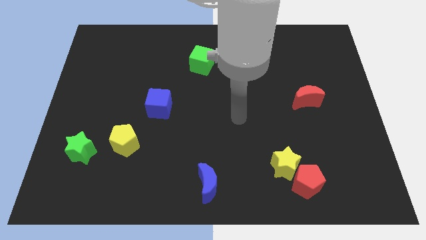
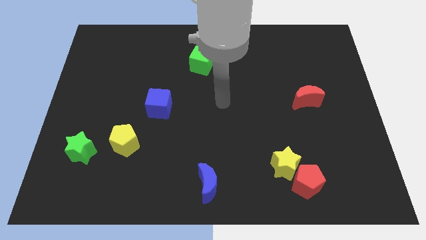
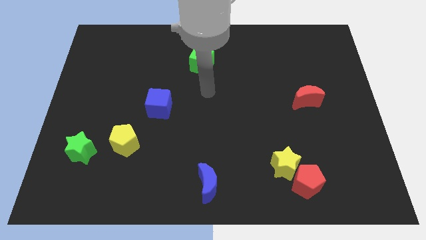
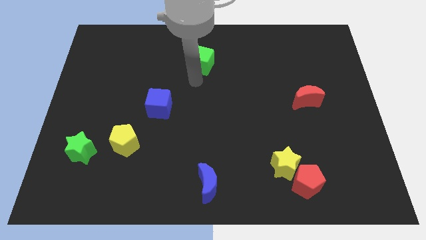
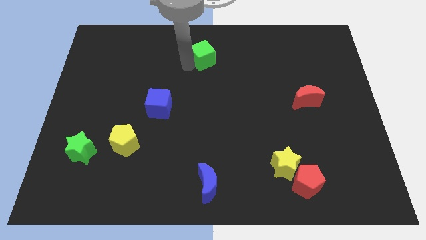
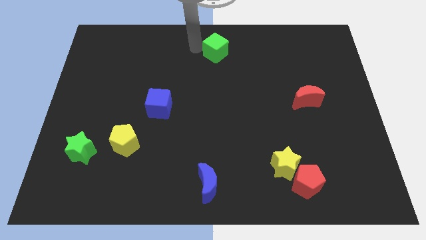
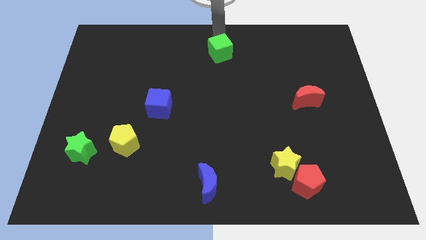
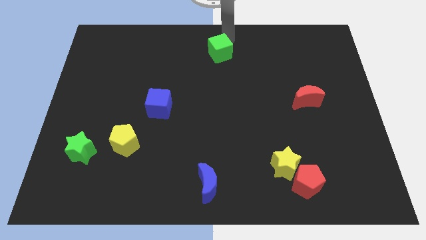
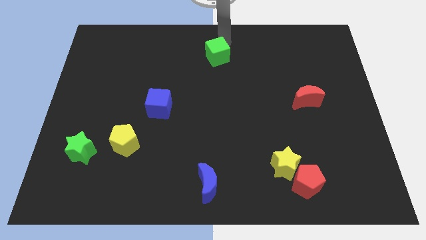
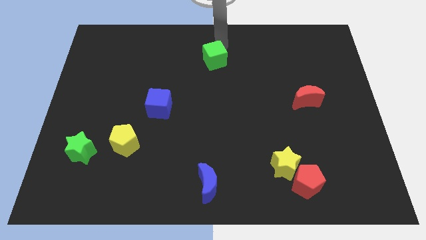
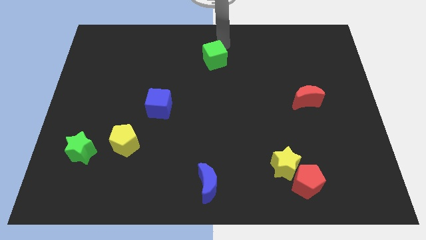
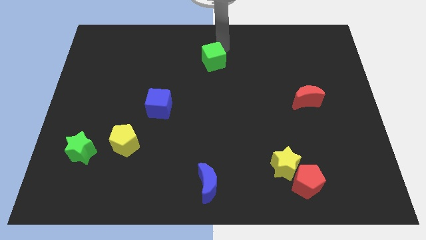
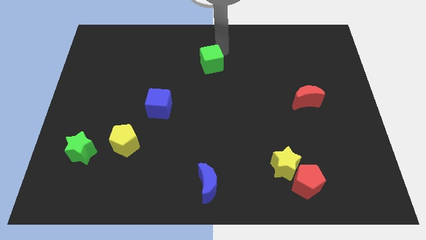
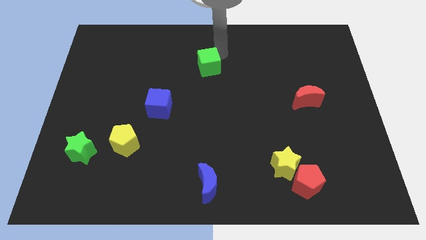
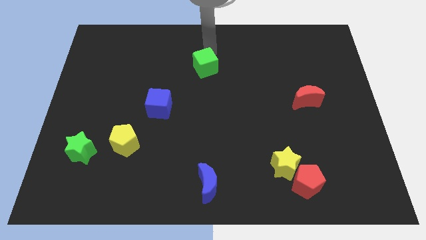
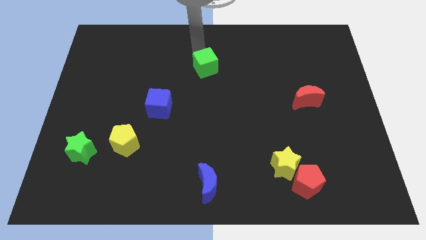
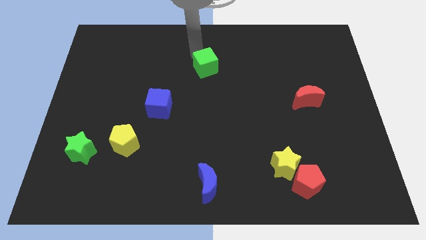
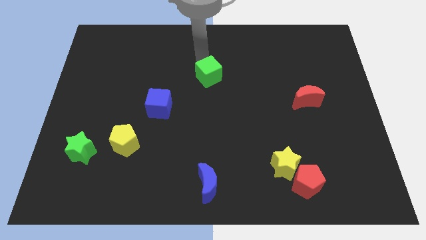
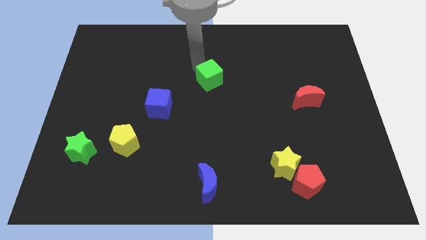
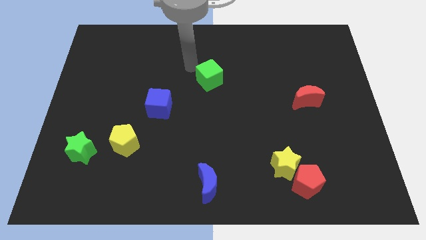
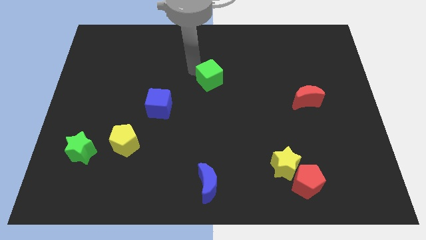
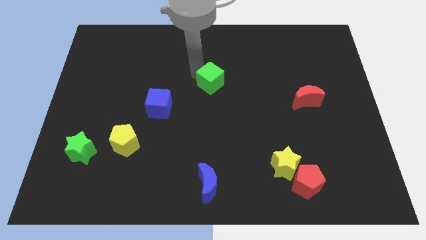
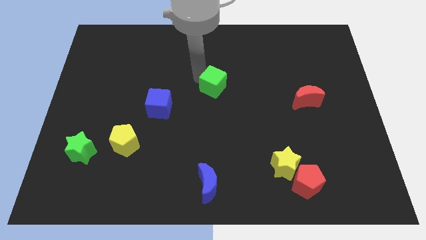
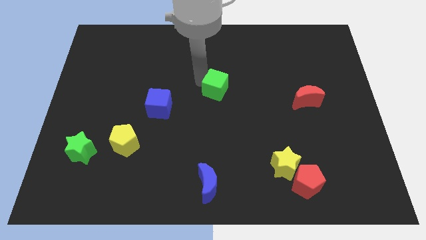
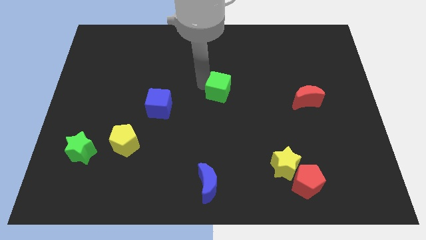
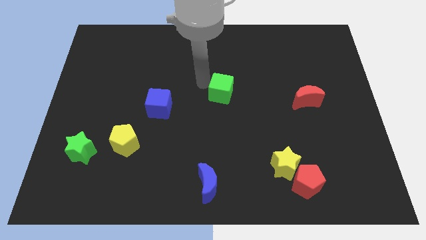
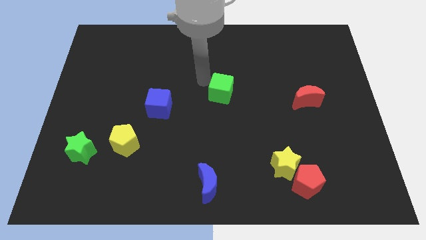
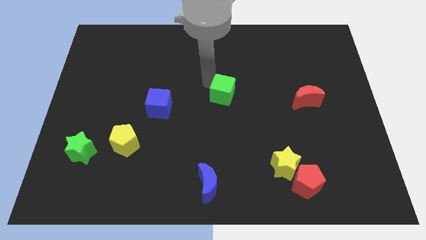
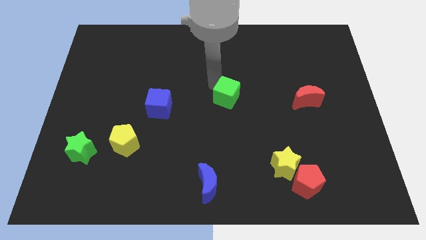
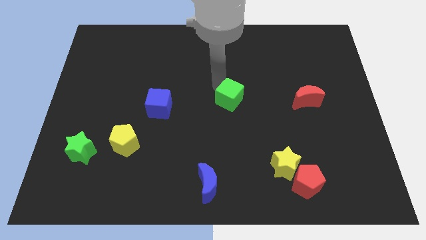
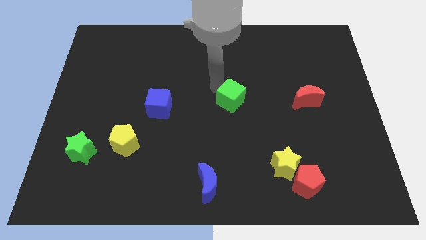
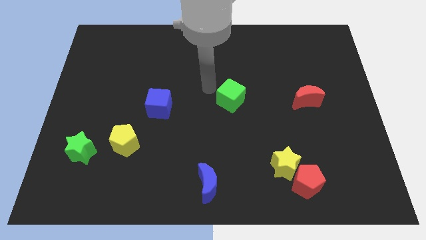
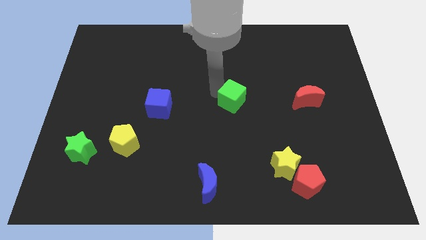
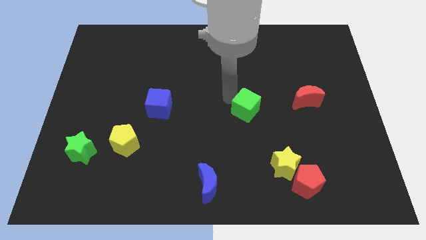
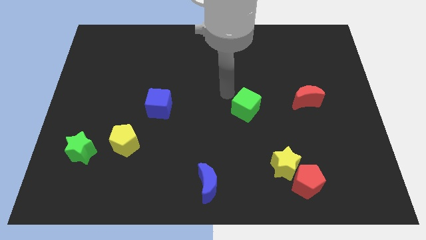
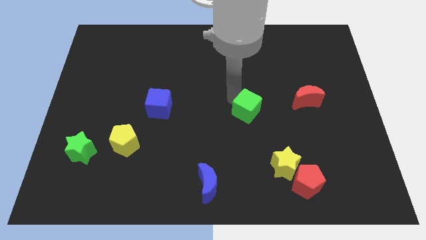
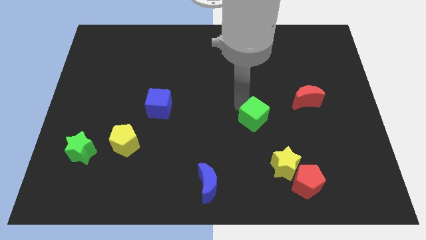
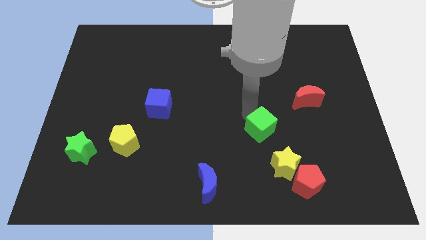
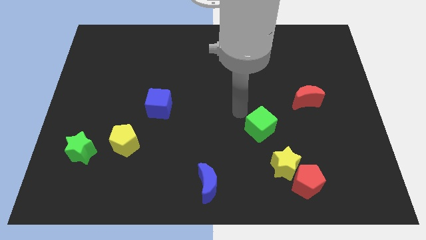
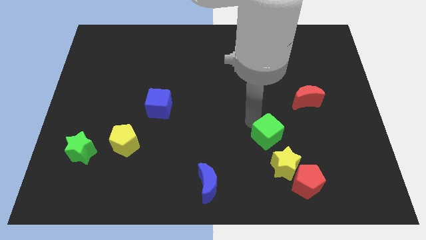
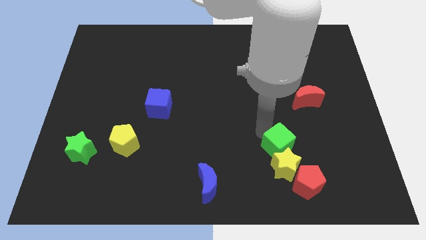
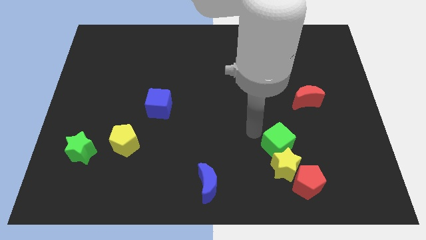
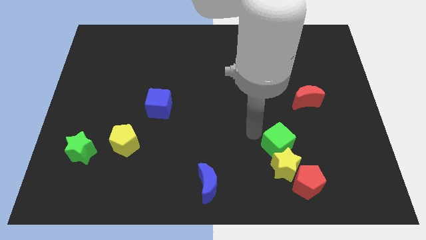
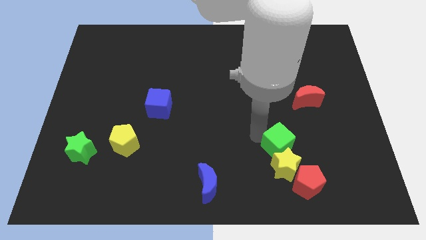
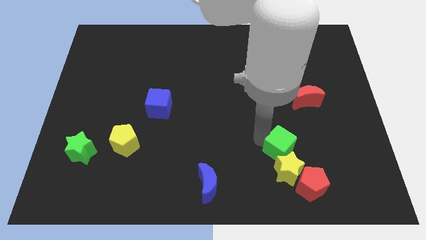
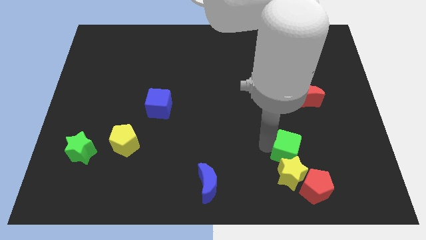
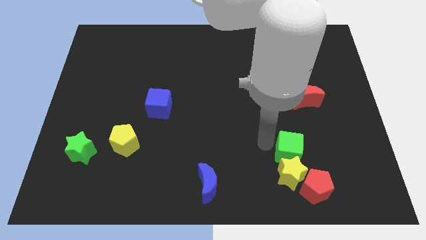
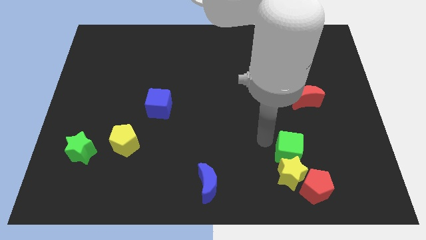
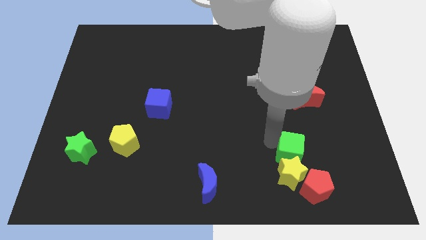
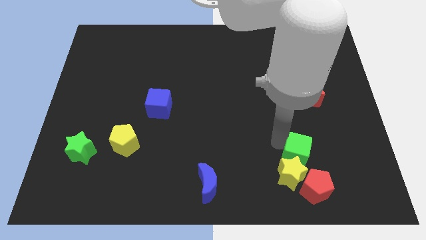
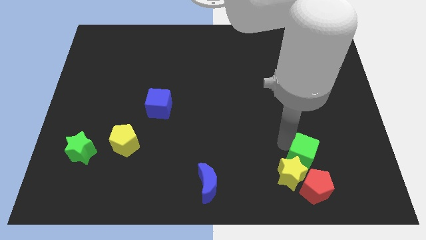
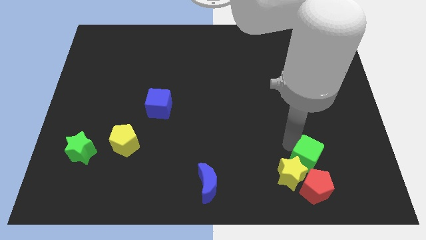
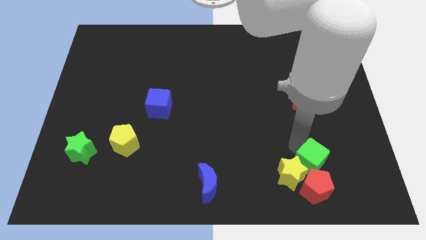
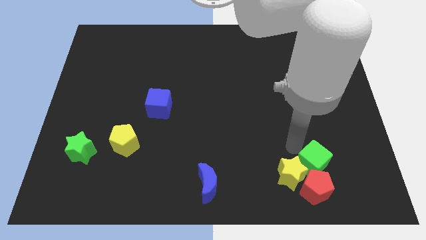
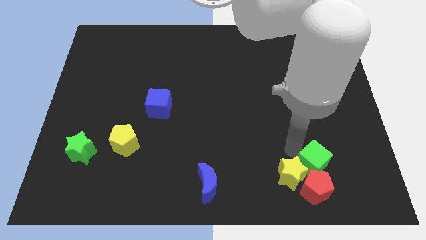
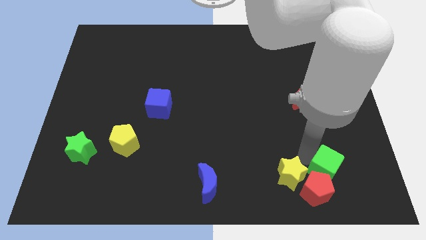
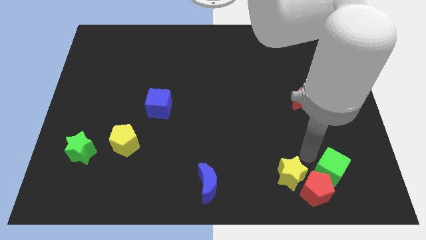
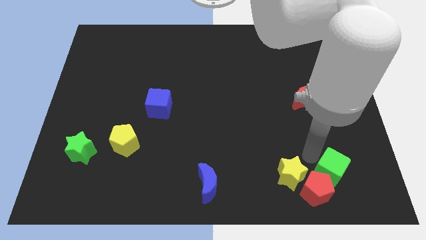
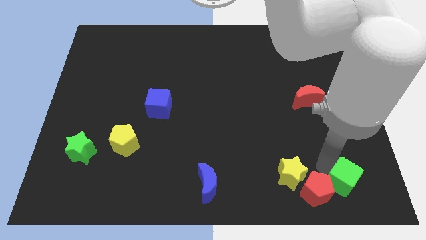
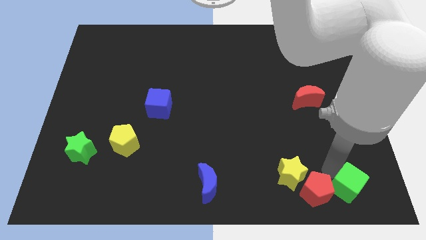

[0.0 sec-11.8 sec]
move the green cube to the lower right corner

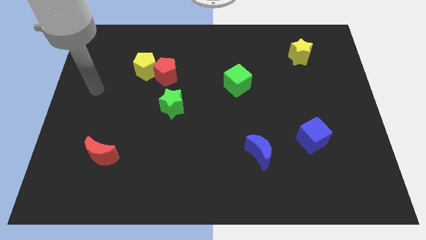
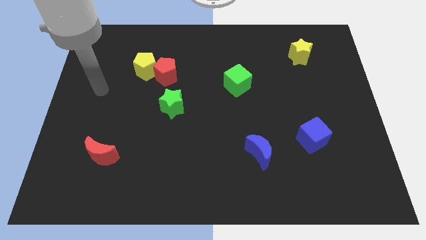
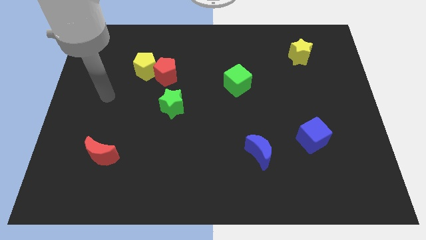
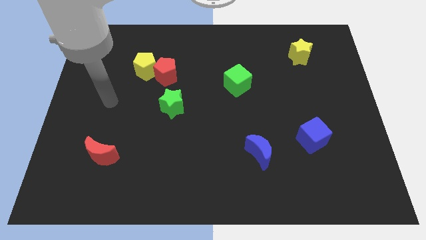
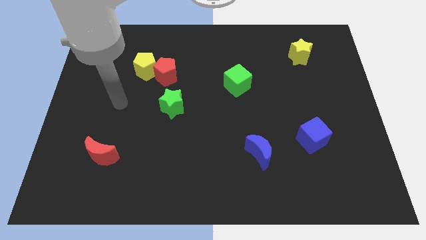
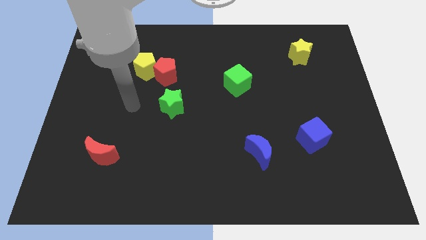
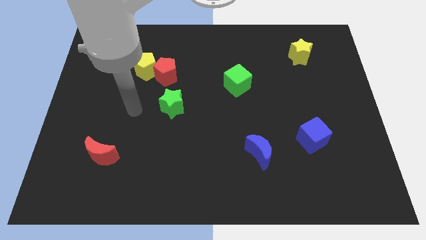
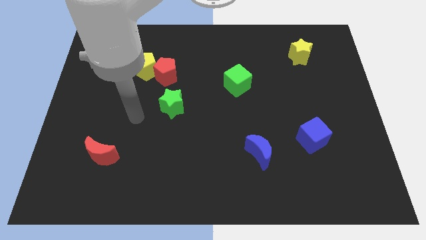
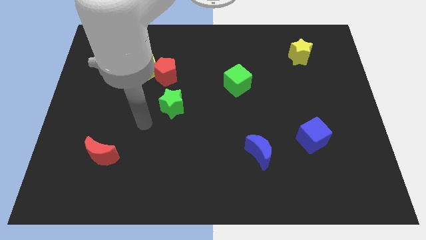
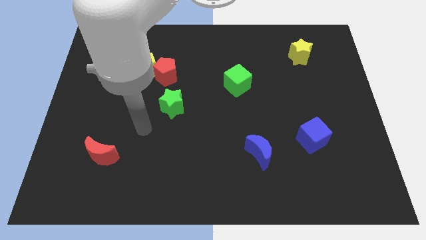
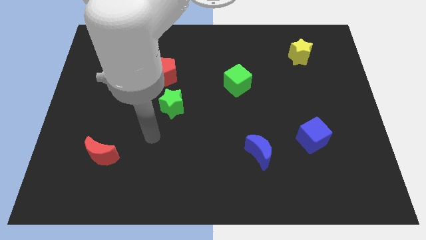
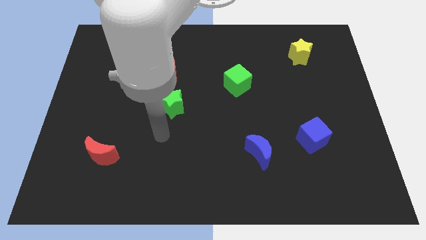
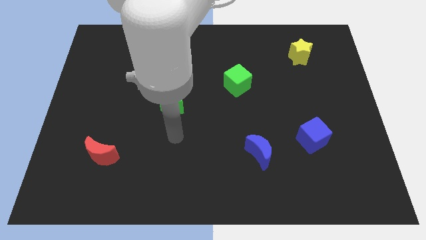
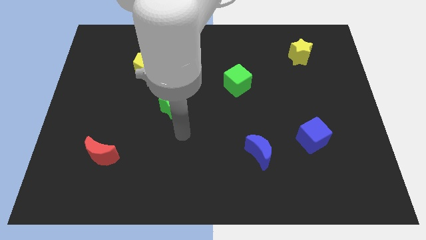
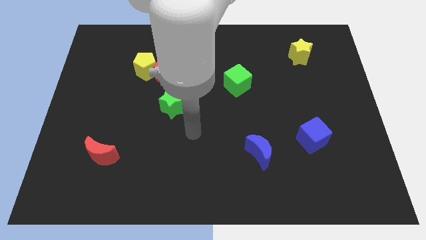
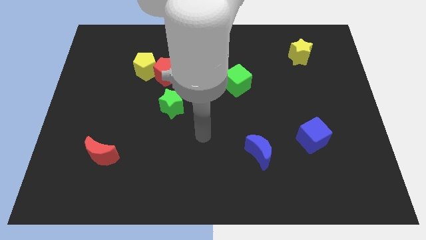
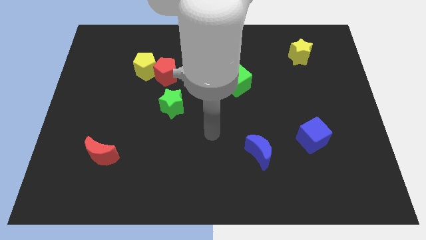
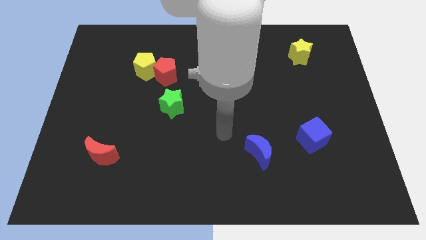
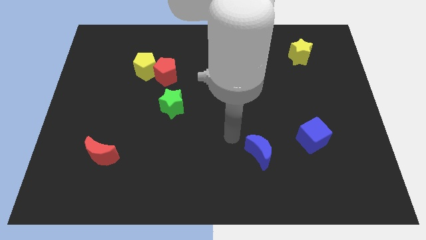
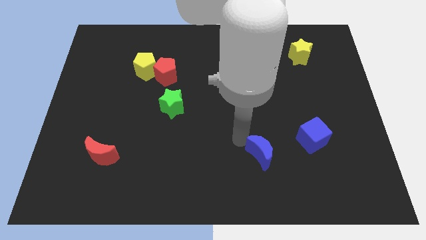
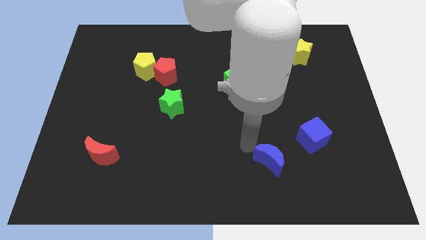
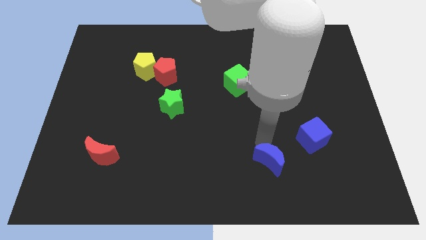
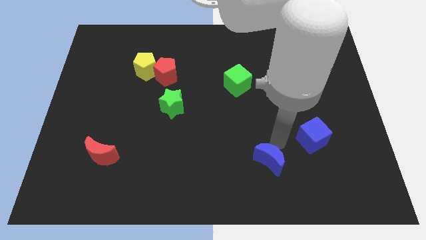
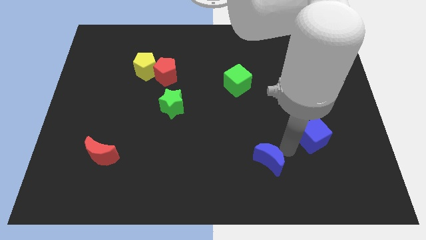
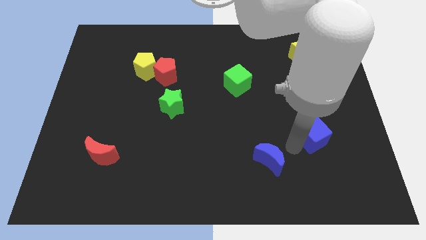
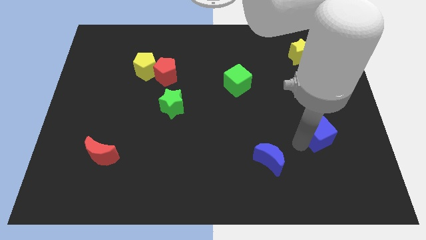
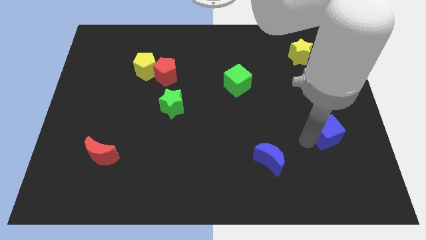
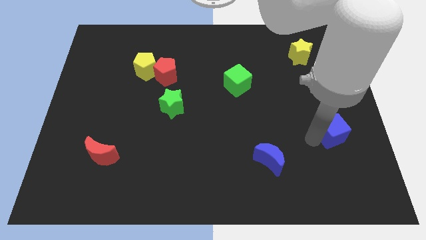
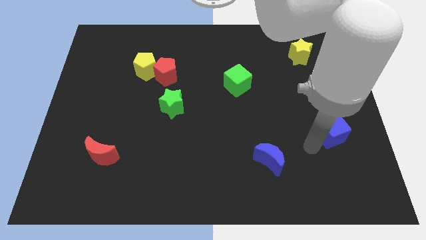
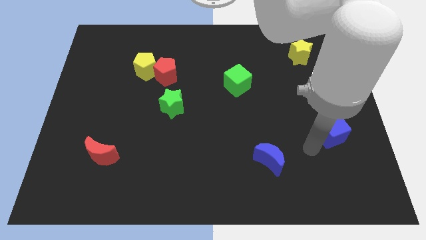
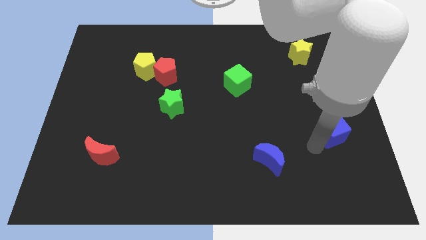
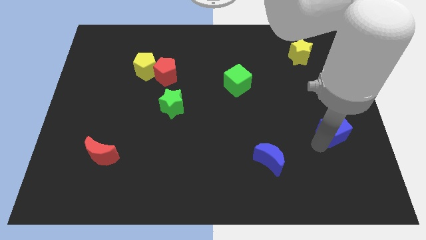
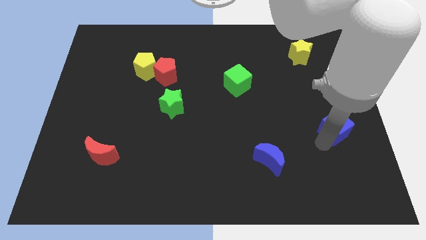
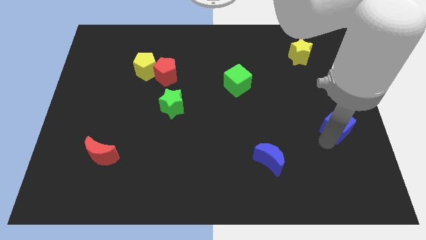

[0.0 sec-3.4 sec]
slide the blue cube to the right side
